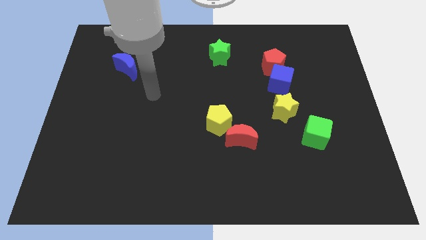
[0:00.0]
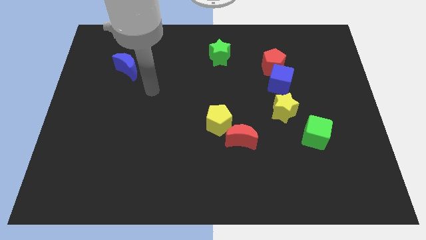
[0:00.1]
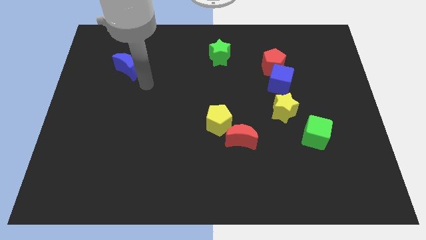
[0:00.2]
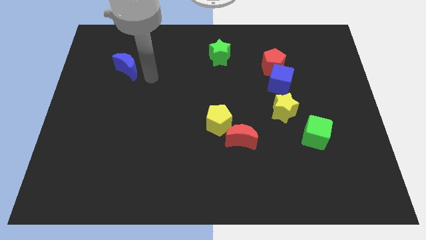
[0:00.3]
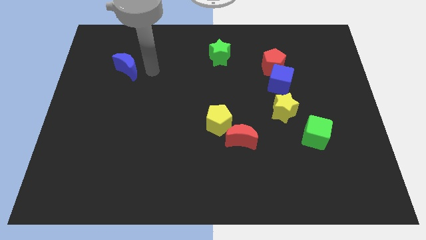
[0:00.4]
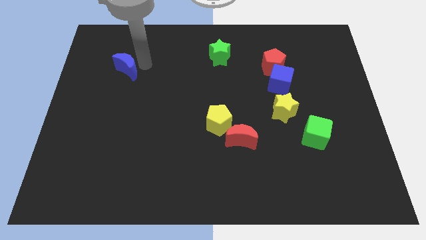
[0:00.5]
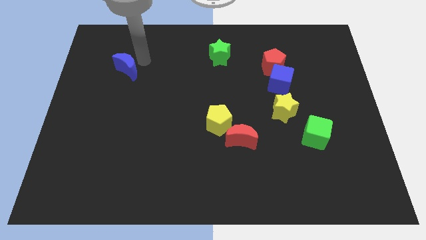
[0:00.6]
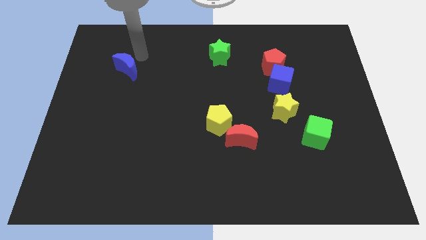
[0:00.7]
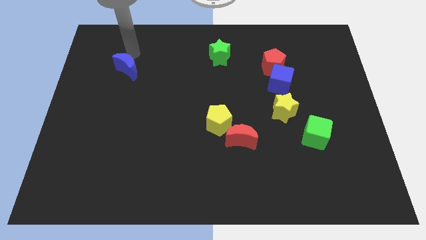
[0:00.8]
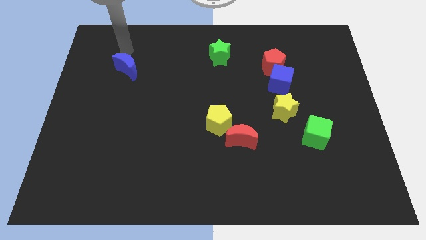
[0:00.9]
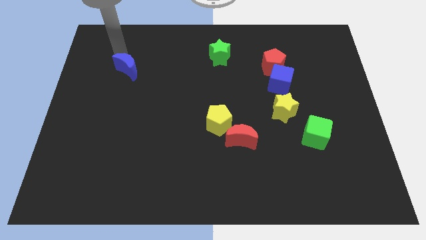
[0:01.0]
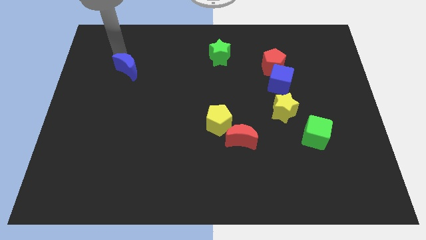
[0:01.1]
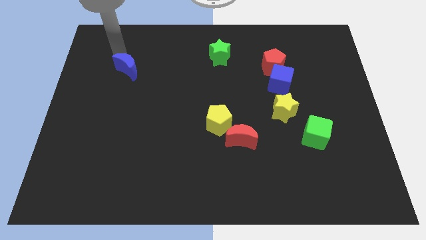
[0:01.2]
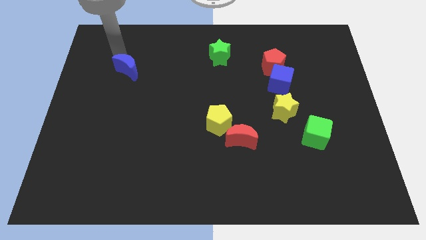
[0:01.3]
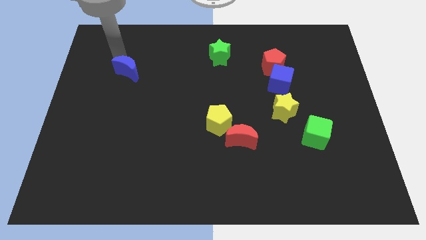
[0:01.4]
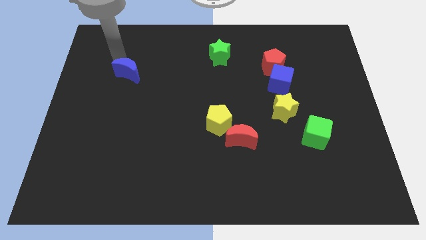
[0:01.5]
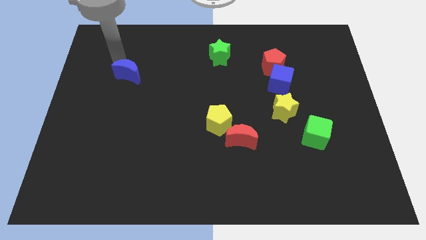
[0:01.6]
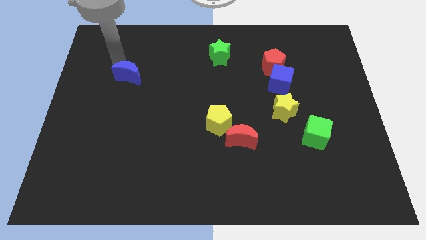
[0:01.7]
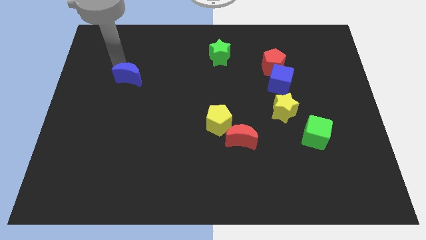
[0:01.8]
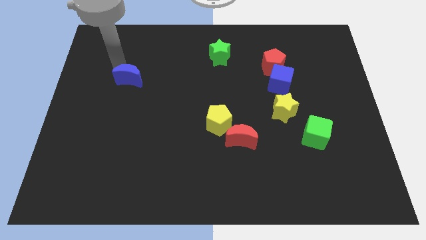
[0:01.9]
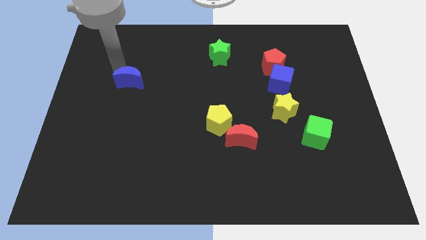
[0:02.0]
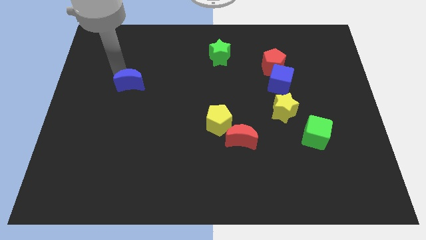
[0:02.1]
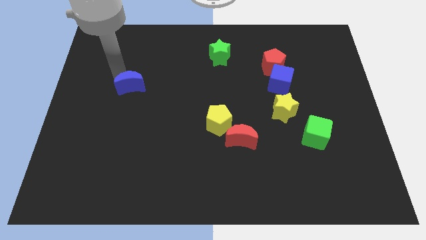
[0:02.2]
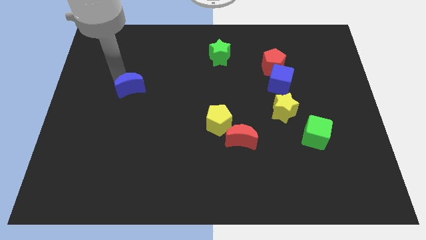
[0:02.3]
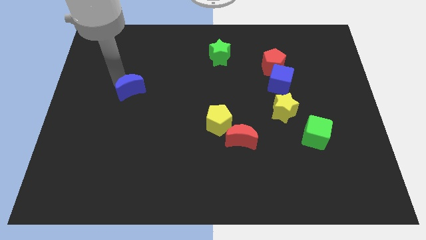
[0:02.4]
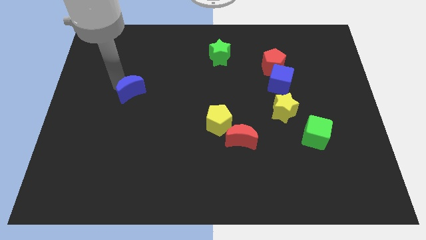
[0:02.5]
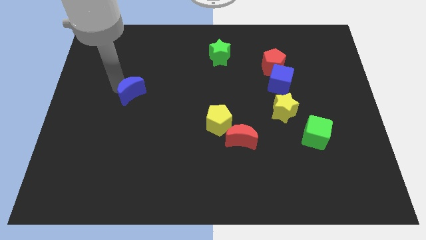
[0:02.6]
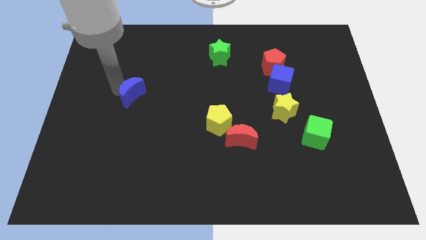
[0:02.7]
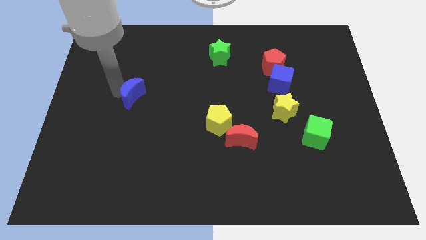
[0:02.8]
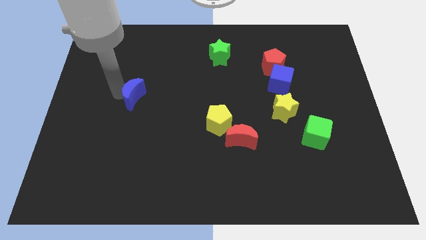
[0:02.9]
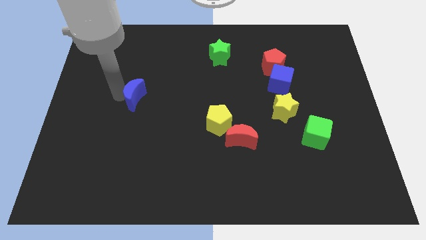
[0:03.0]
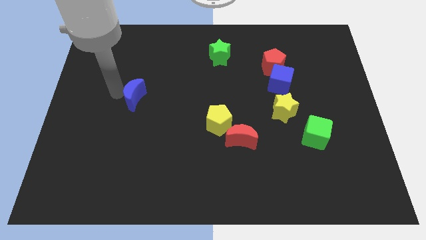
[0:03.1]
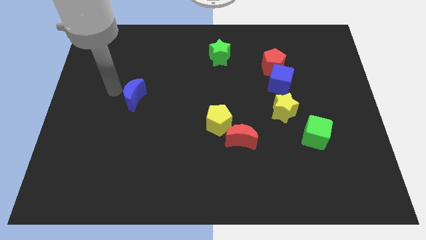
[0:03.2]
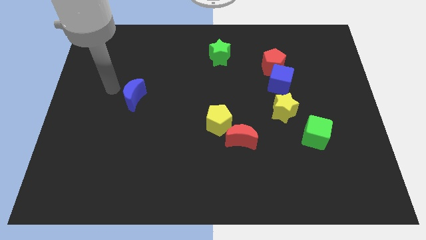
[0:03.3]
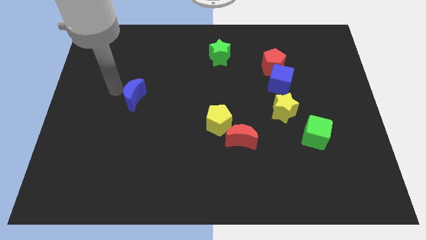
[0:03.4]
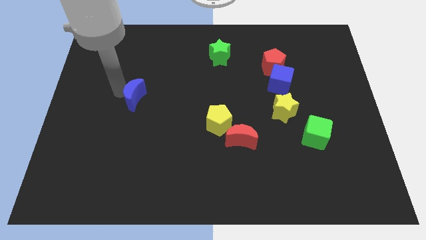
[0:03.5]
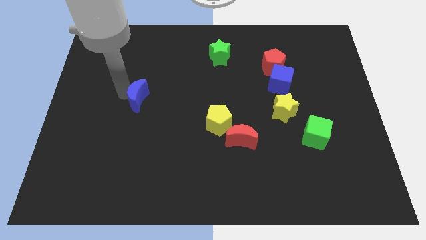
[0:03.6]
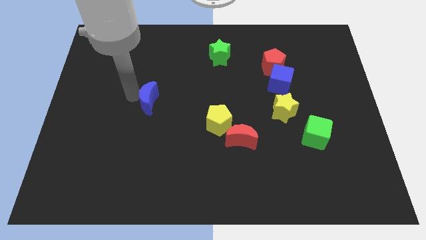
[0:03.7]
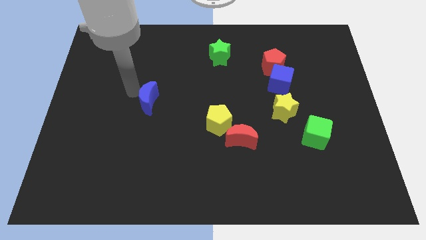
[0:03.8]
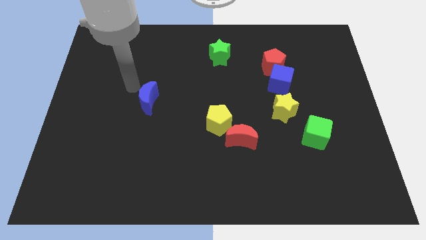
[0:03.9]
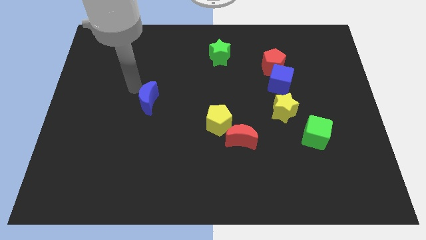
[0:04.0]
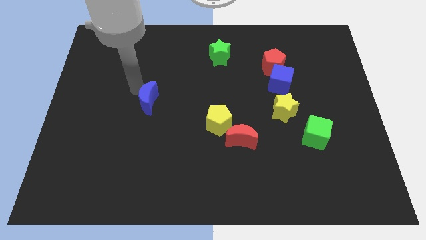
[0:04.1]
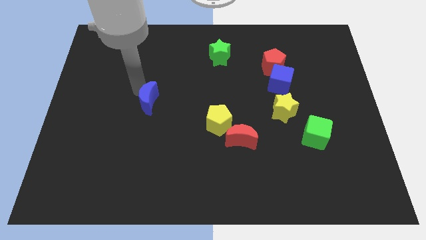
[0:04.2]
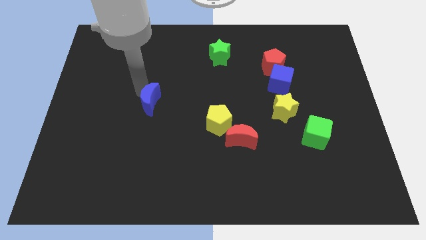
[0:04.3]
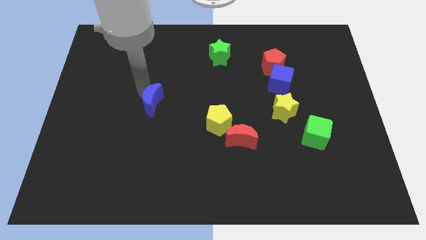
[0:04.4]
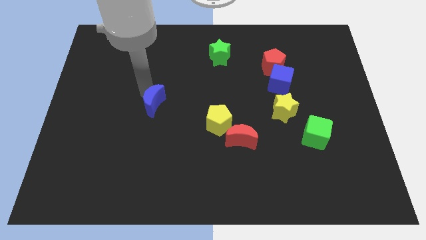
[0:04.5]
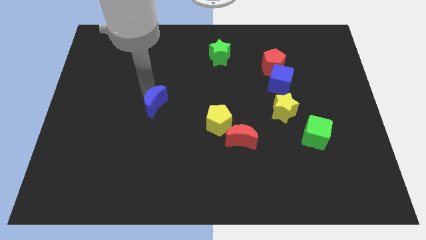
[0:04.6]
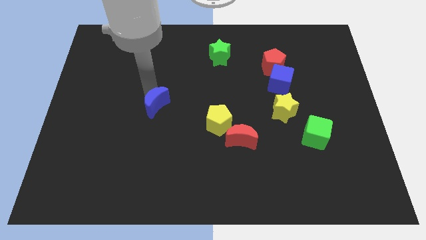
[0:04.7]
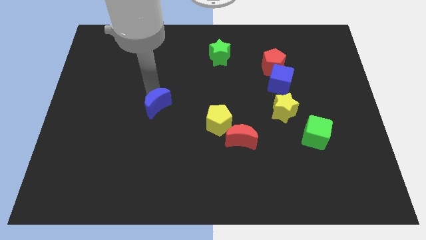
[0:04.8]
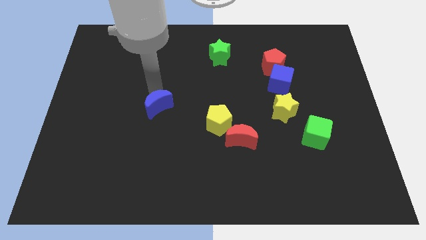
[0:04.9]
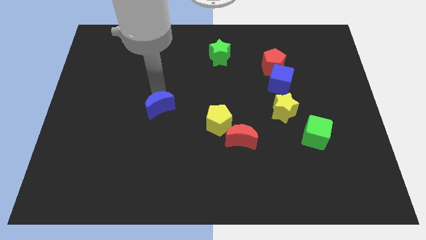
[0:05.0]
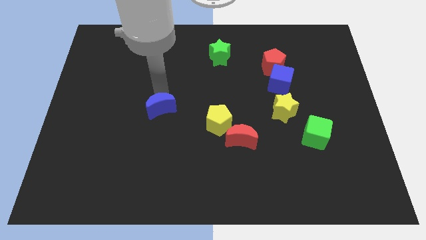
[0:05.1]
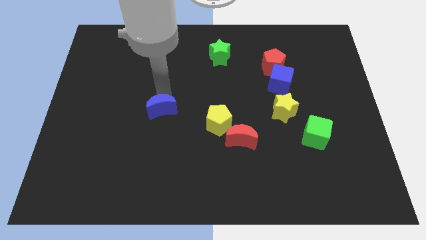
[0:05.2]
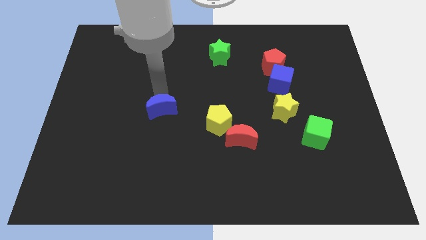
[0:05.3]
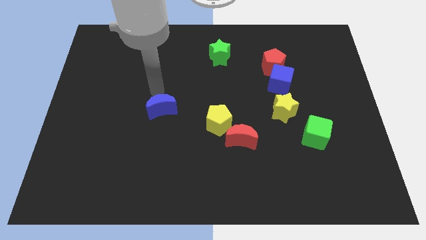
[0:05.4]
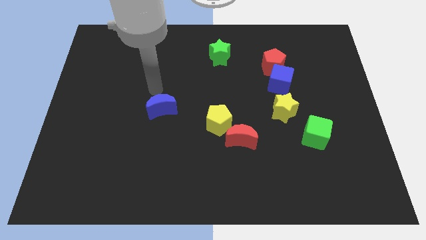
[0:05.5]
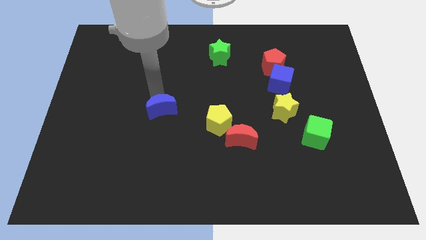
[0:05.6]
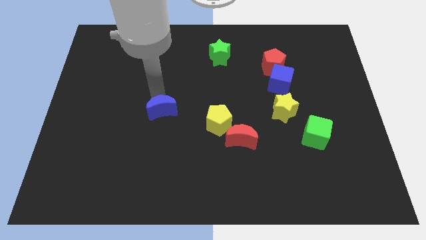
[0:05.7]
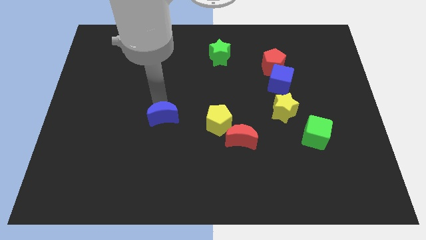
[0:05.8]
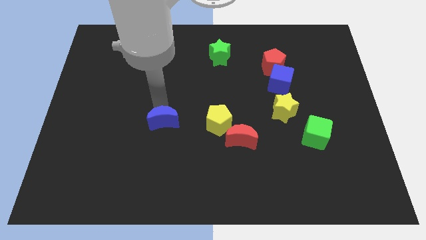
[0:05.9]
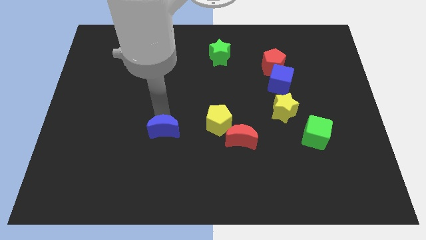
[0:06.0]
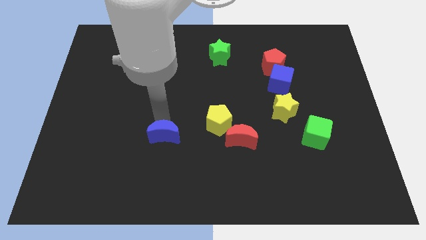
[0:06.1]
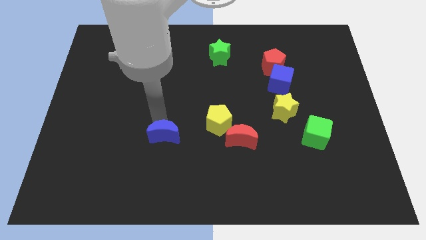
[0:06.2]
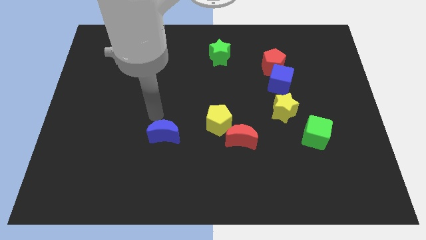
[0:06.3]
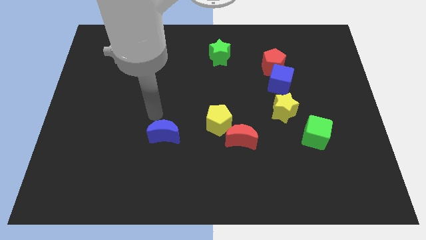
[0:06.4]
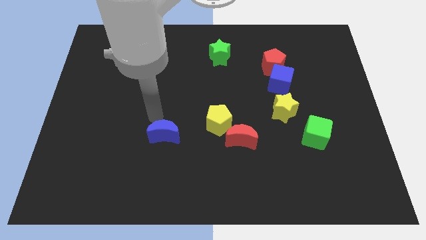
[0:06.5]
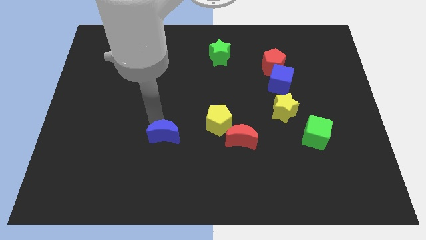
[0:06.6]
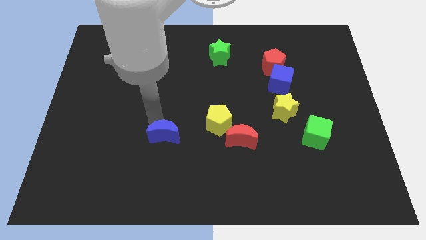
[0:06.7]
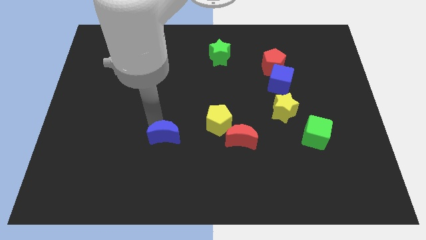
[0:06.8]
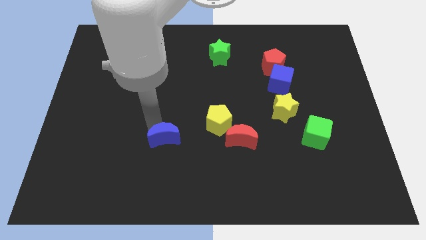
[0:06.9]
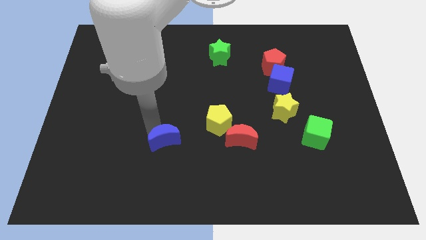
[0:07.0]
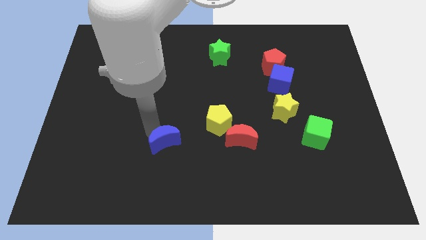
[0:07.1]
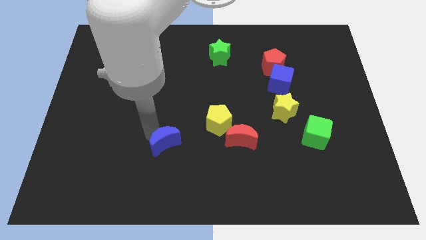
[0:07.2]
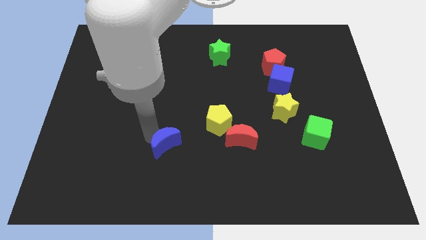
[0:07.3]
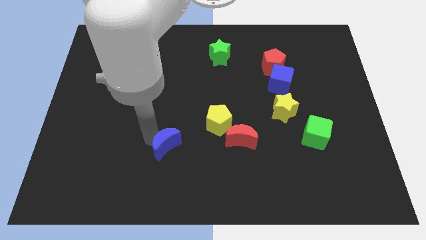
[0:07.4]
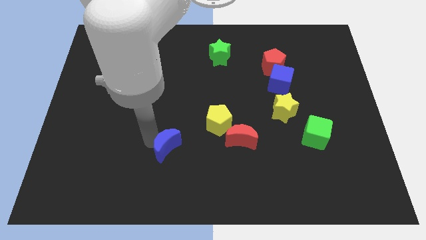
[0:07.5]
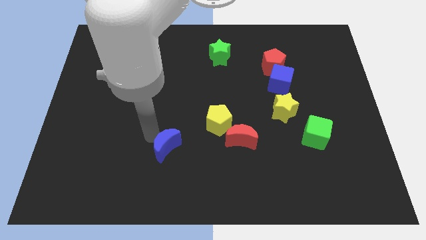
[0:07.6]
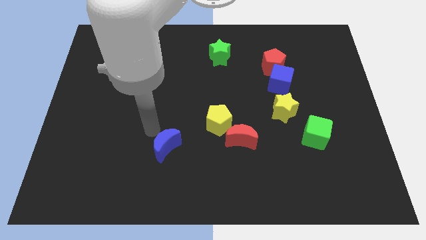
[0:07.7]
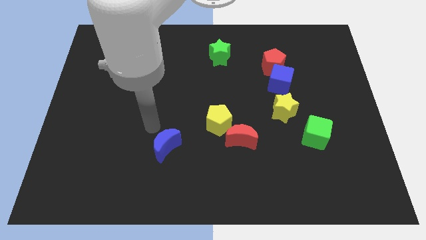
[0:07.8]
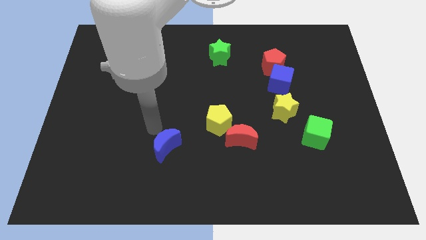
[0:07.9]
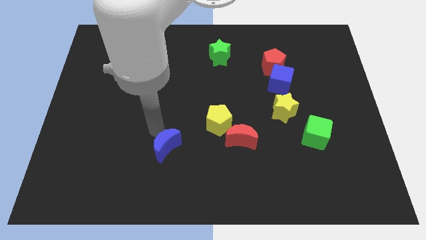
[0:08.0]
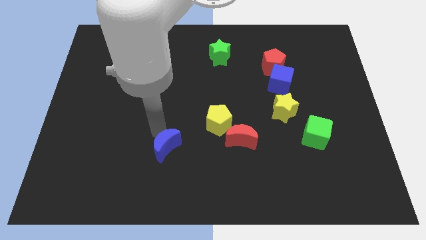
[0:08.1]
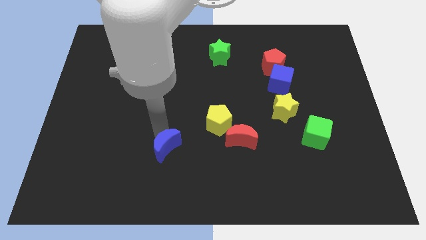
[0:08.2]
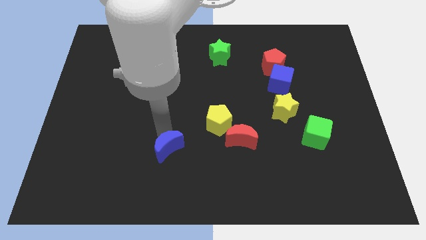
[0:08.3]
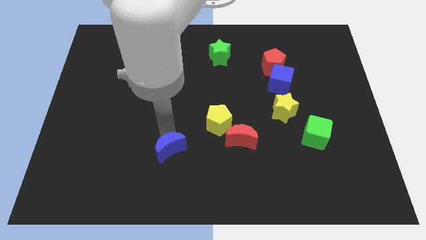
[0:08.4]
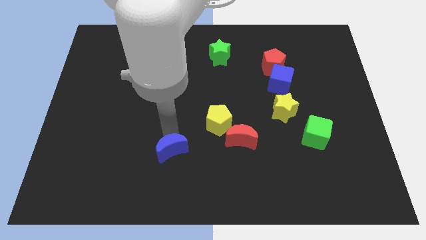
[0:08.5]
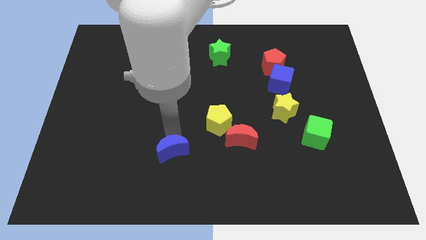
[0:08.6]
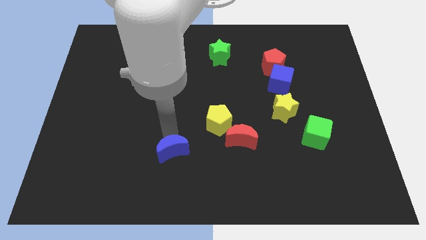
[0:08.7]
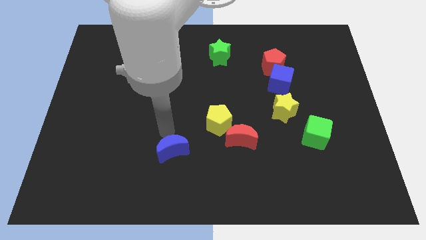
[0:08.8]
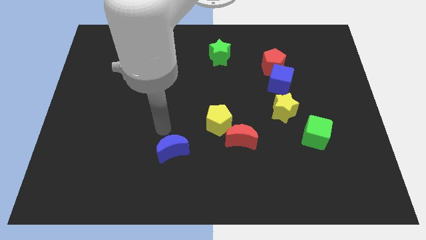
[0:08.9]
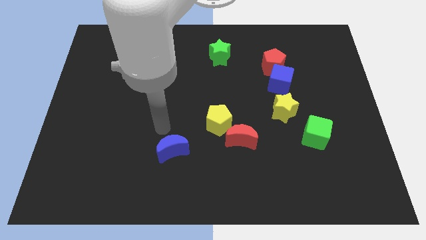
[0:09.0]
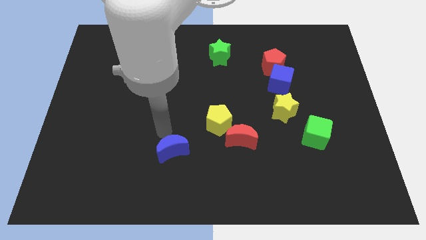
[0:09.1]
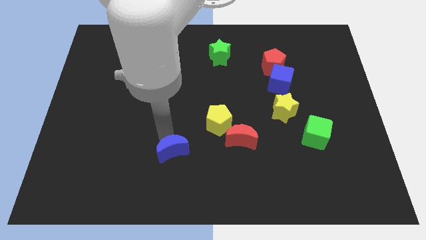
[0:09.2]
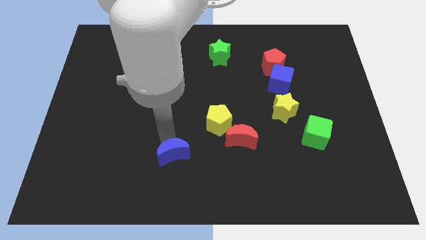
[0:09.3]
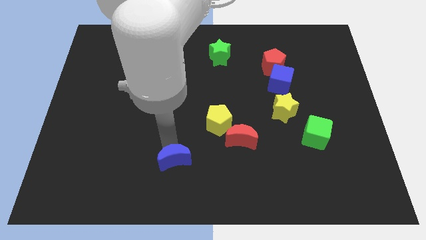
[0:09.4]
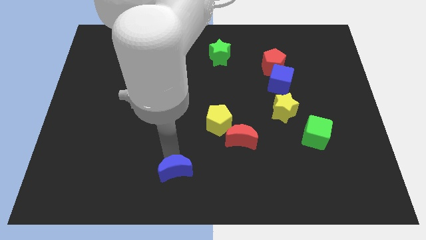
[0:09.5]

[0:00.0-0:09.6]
push the blue moon to the bottom
